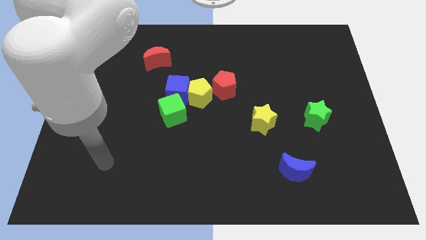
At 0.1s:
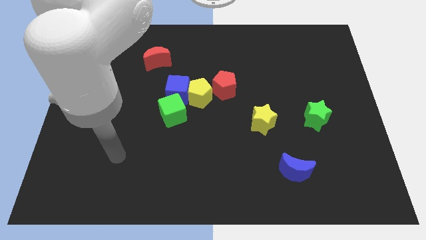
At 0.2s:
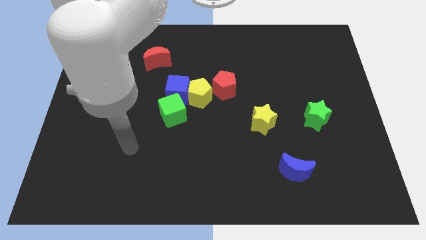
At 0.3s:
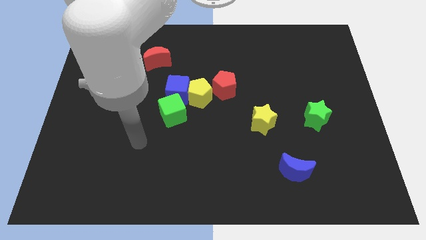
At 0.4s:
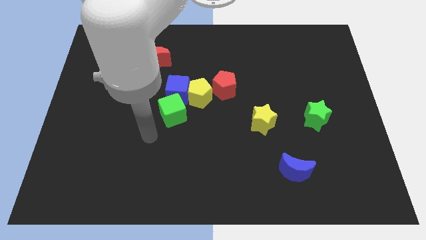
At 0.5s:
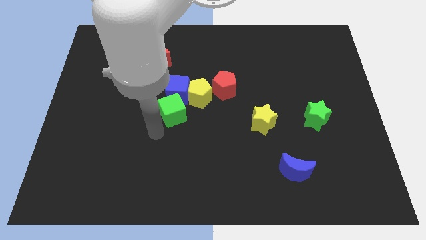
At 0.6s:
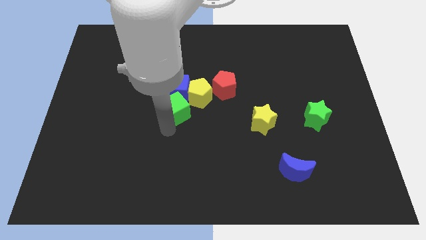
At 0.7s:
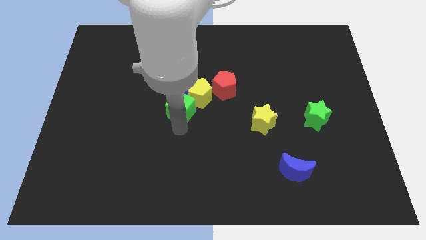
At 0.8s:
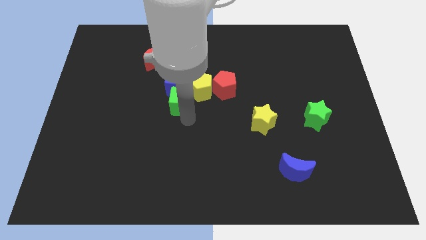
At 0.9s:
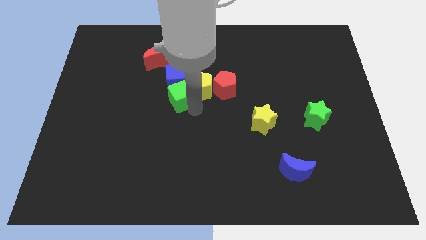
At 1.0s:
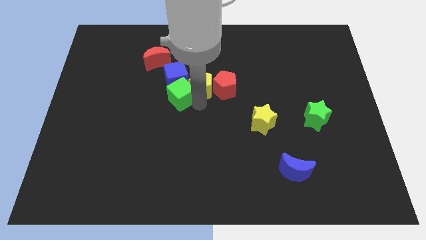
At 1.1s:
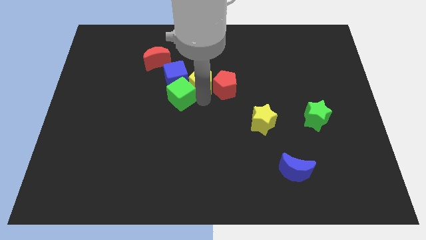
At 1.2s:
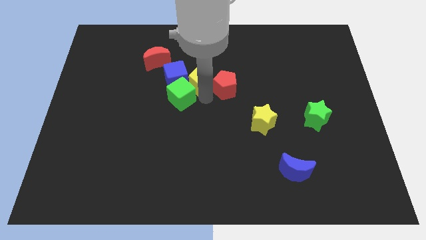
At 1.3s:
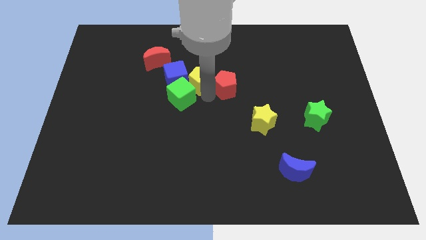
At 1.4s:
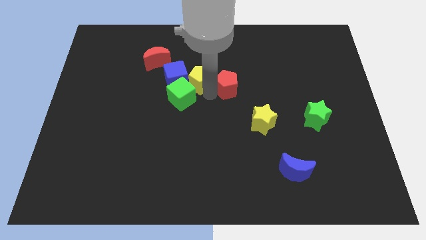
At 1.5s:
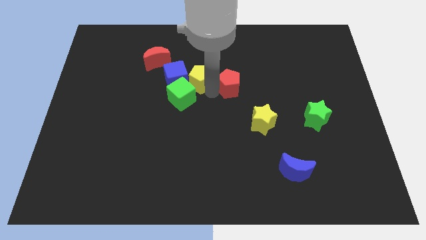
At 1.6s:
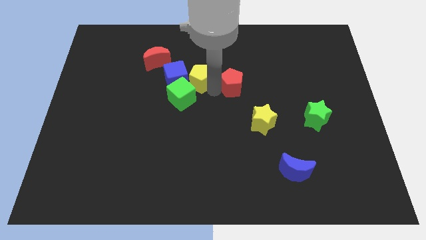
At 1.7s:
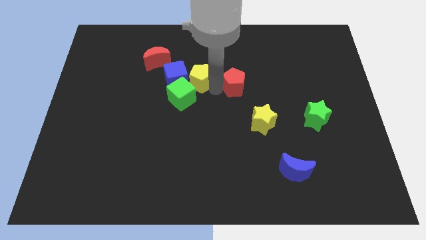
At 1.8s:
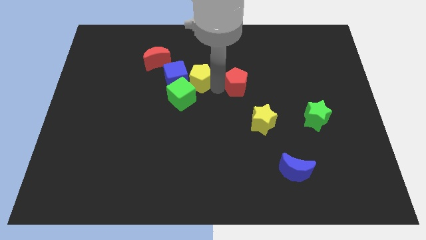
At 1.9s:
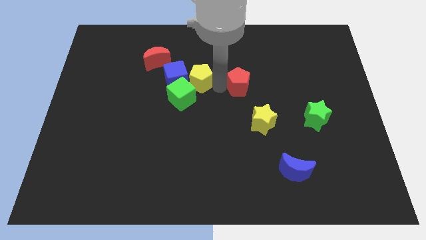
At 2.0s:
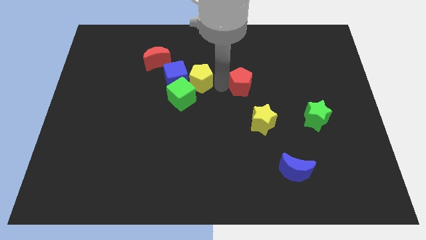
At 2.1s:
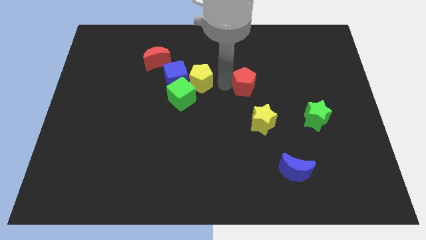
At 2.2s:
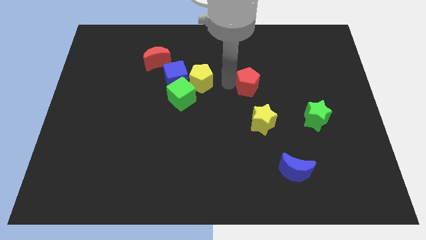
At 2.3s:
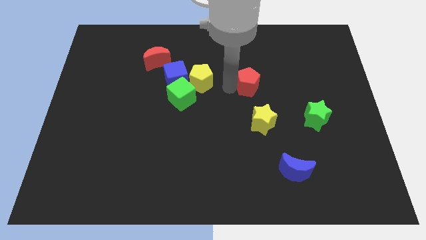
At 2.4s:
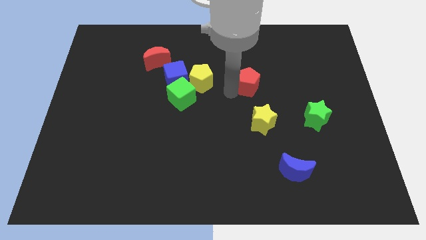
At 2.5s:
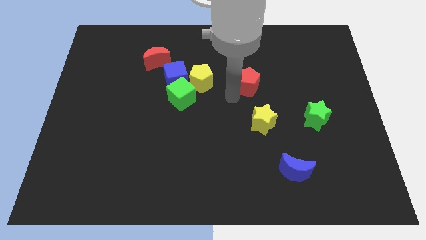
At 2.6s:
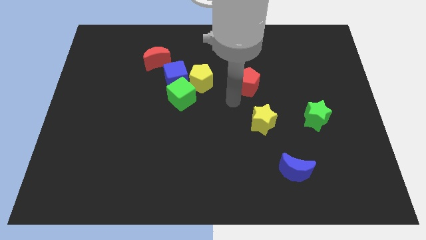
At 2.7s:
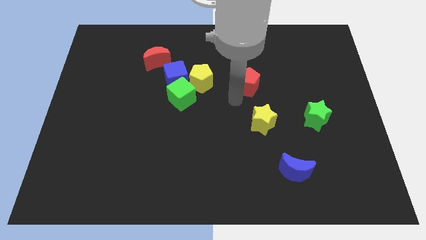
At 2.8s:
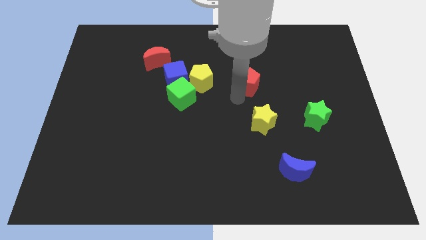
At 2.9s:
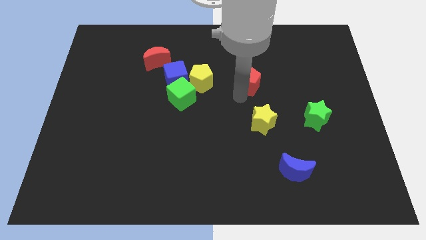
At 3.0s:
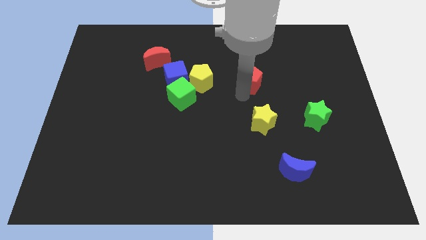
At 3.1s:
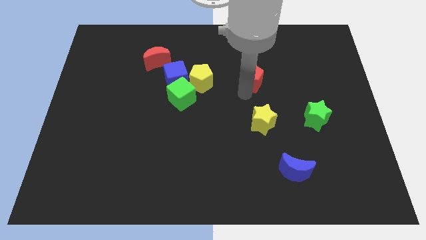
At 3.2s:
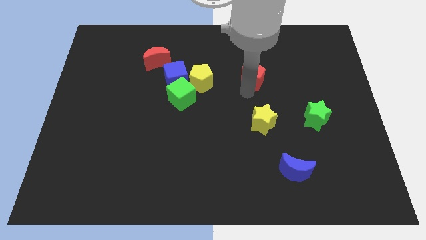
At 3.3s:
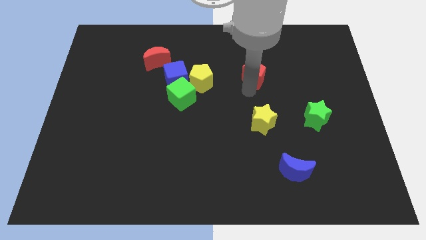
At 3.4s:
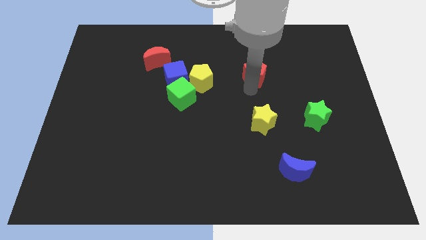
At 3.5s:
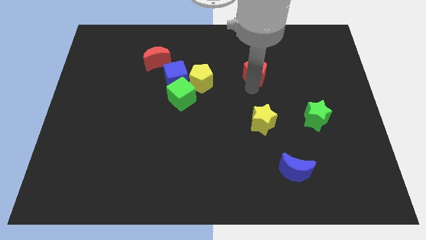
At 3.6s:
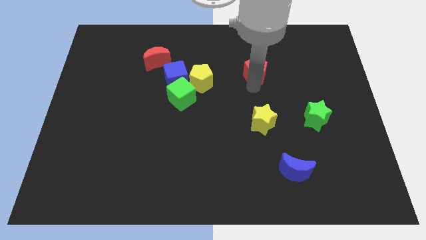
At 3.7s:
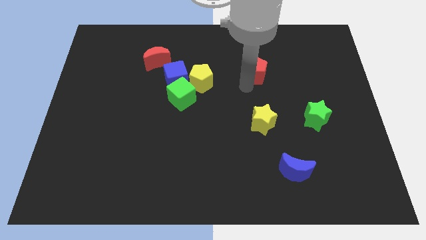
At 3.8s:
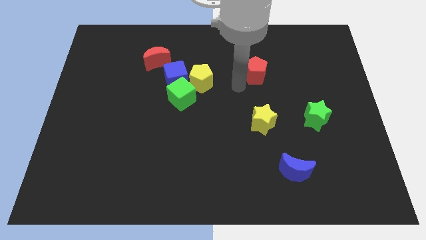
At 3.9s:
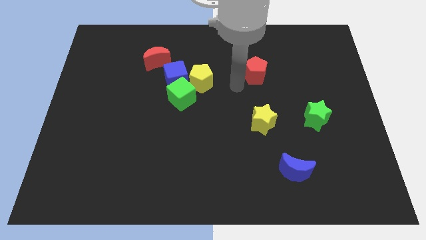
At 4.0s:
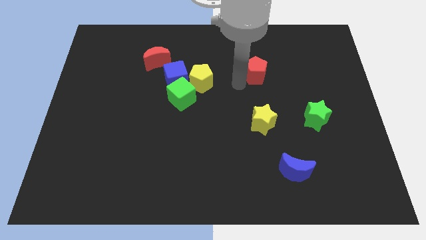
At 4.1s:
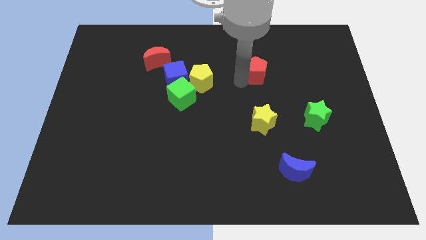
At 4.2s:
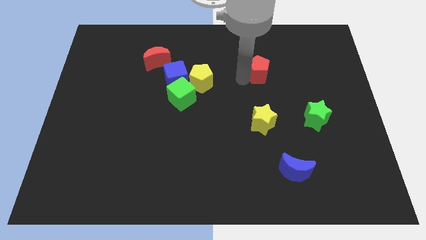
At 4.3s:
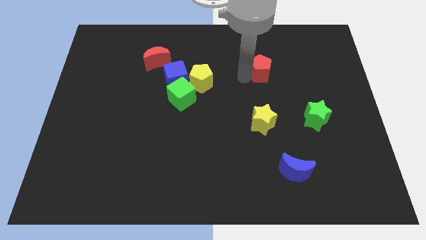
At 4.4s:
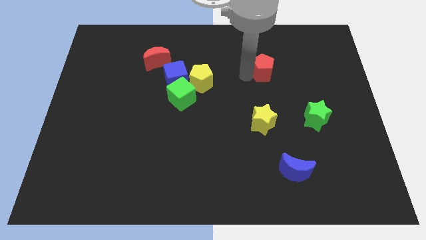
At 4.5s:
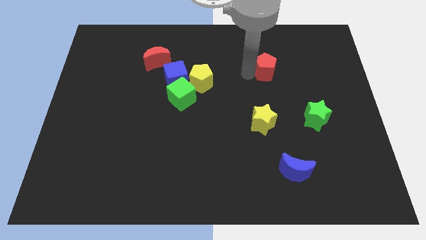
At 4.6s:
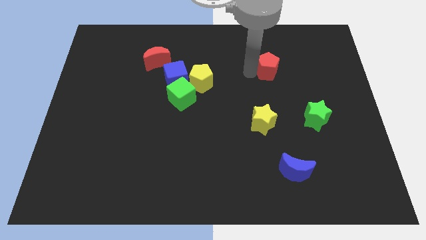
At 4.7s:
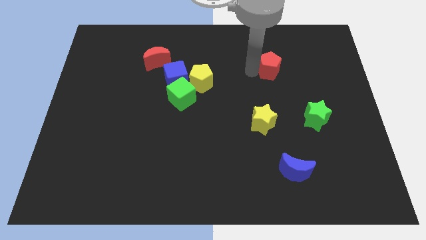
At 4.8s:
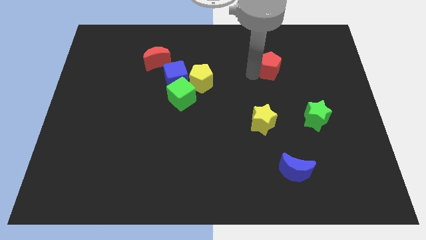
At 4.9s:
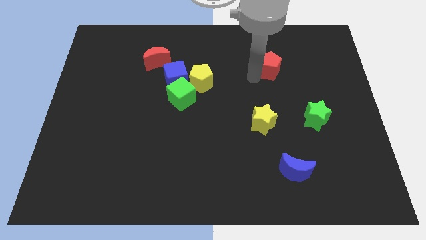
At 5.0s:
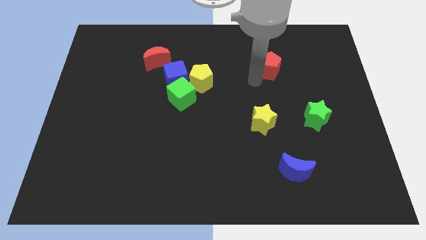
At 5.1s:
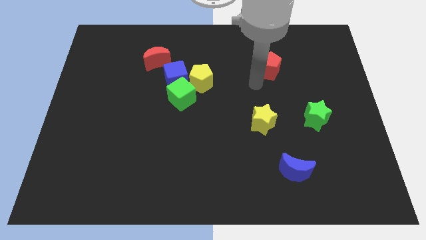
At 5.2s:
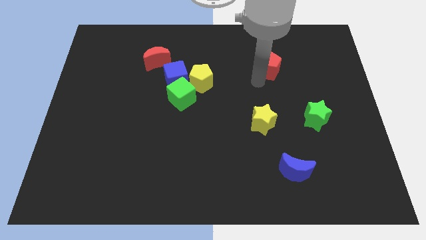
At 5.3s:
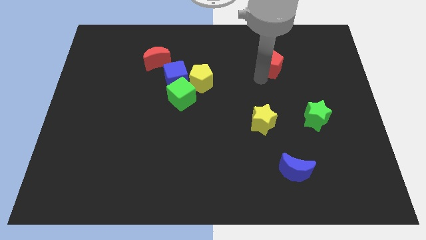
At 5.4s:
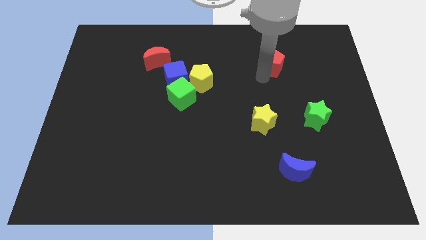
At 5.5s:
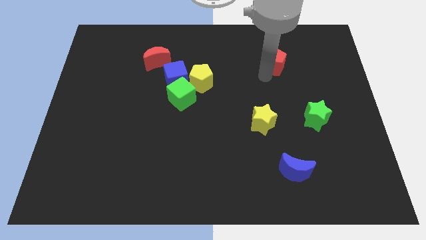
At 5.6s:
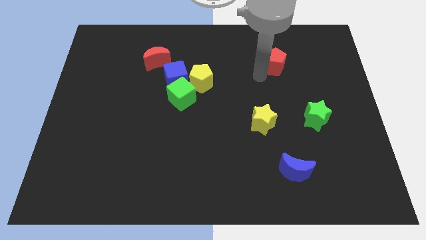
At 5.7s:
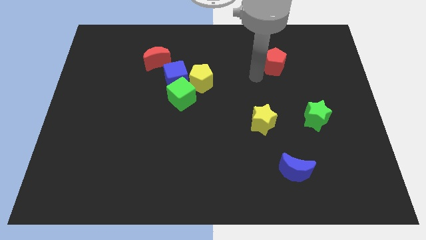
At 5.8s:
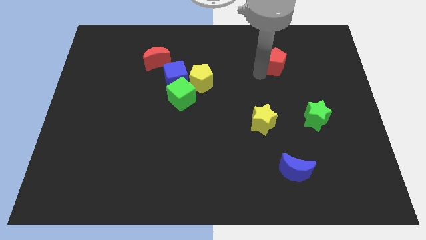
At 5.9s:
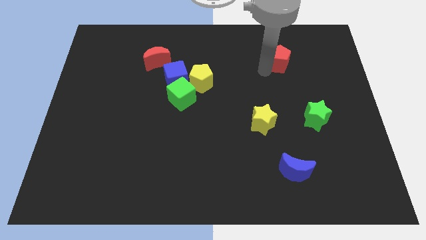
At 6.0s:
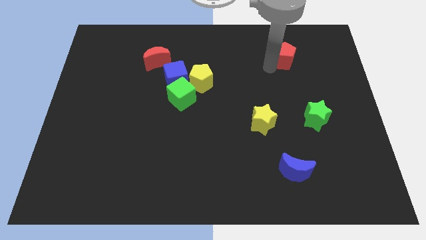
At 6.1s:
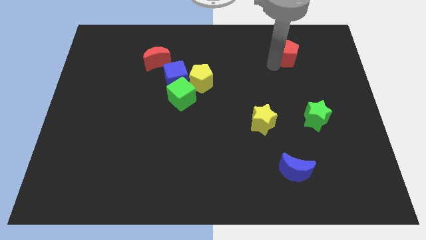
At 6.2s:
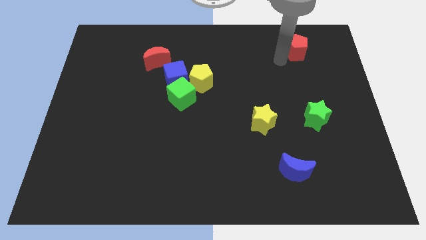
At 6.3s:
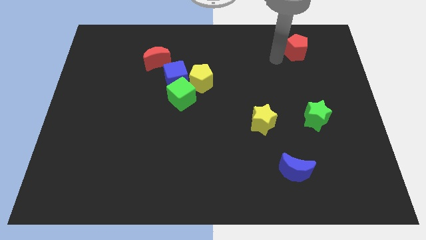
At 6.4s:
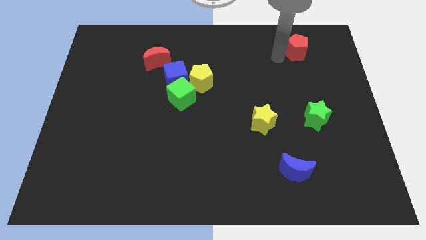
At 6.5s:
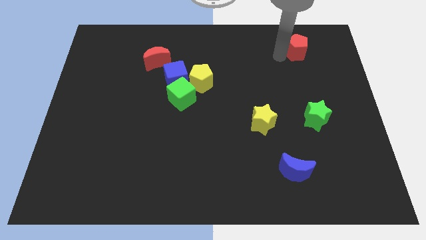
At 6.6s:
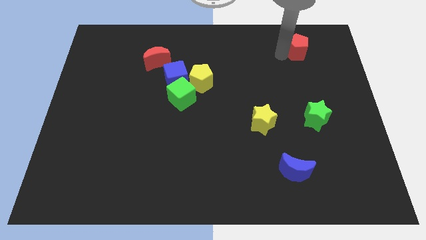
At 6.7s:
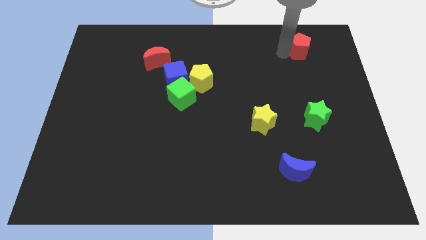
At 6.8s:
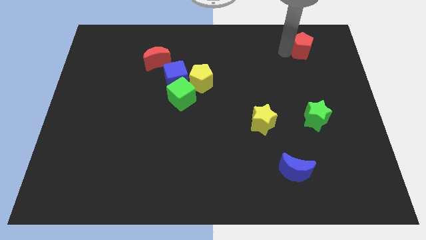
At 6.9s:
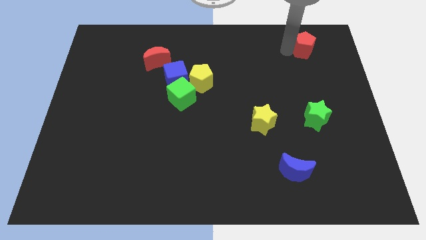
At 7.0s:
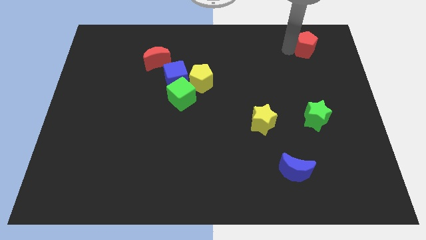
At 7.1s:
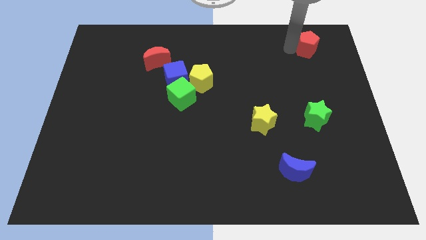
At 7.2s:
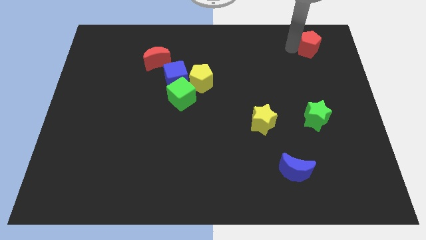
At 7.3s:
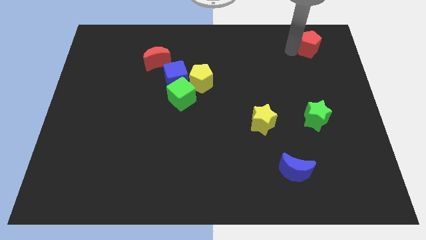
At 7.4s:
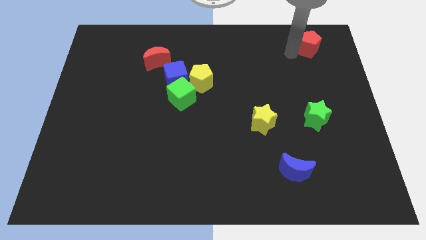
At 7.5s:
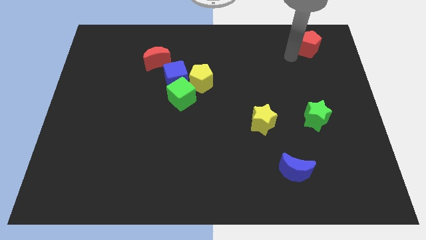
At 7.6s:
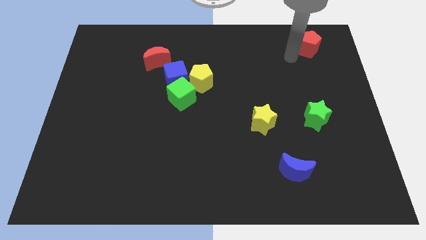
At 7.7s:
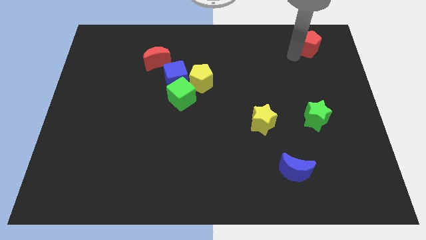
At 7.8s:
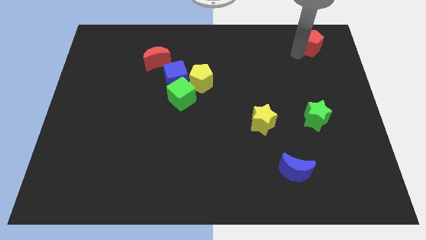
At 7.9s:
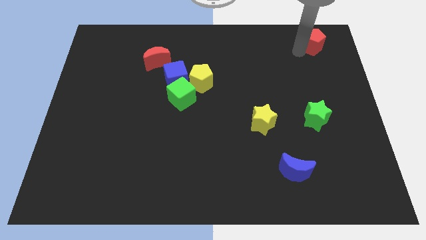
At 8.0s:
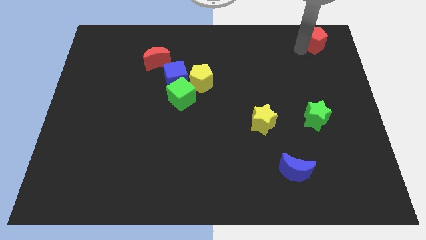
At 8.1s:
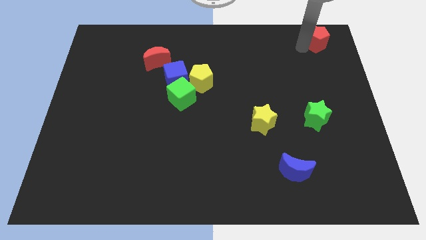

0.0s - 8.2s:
push the red pentagon to the top right
